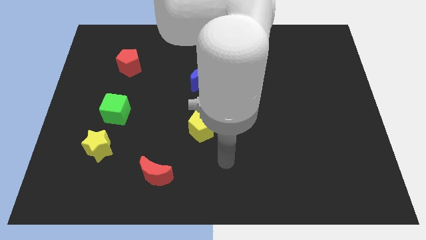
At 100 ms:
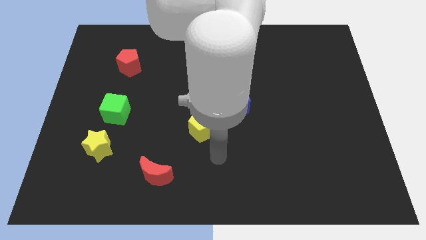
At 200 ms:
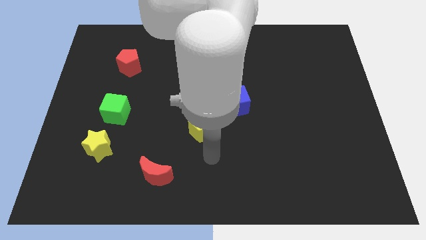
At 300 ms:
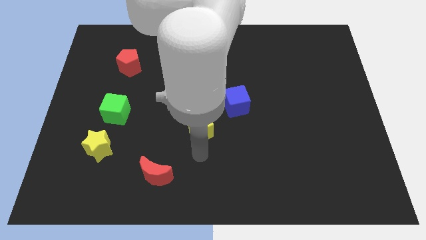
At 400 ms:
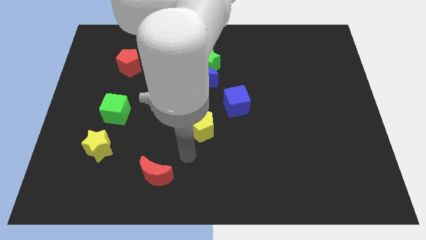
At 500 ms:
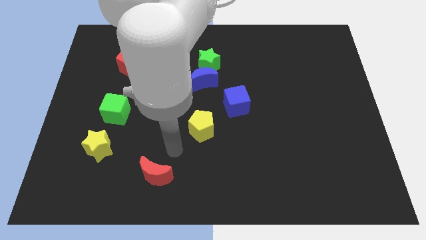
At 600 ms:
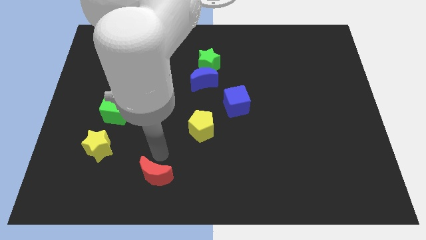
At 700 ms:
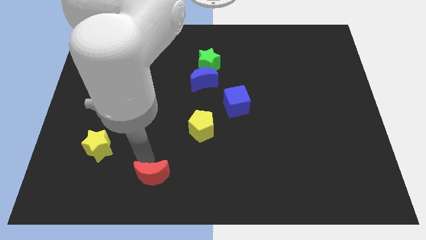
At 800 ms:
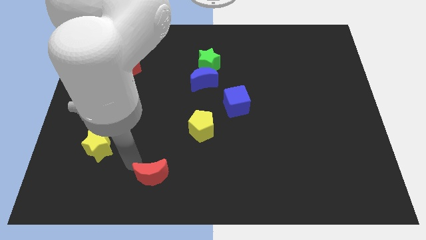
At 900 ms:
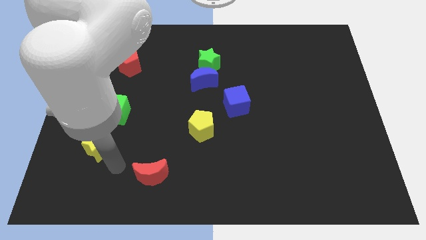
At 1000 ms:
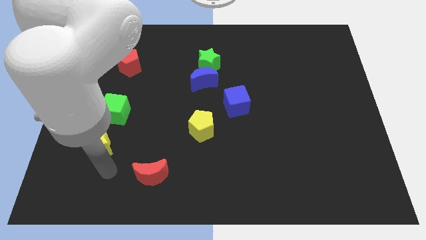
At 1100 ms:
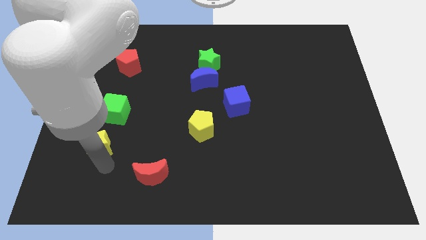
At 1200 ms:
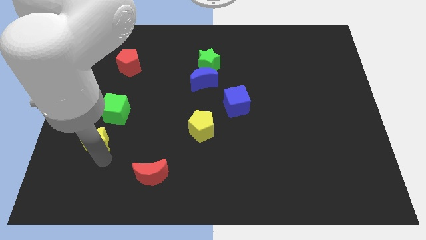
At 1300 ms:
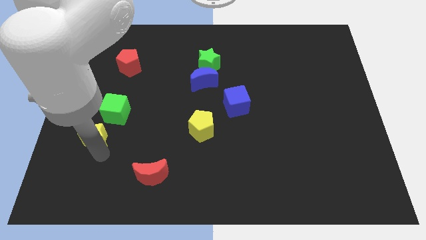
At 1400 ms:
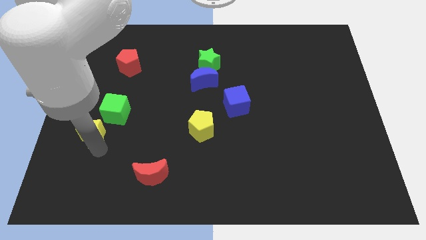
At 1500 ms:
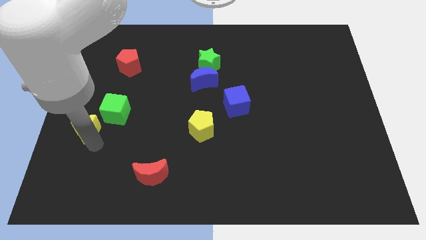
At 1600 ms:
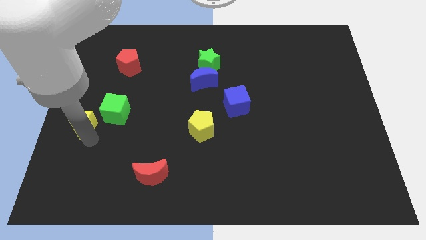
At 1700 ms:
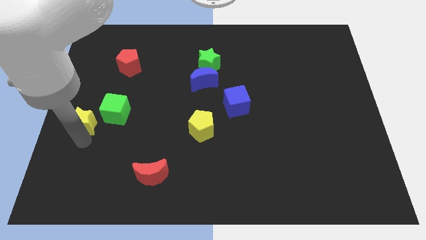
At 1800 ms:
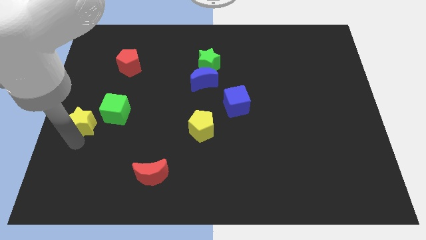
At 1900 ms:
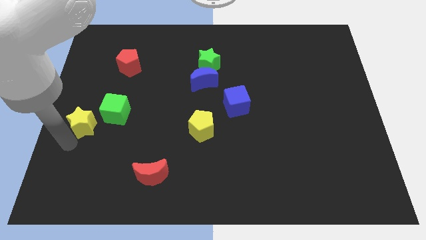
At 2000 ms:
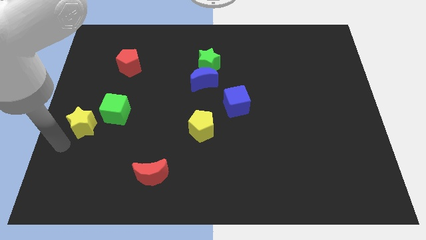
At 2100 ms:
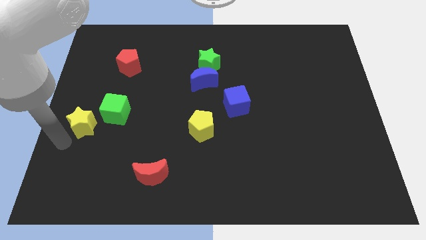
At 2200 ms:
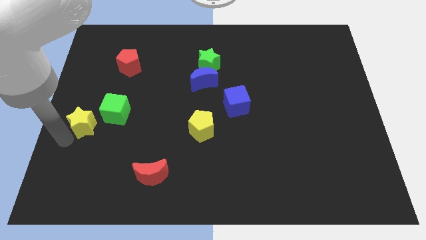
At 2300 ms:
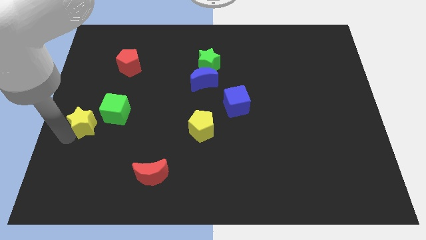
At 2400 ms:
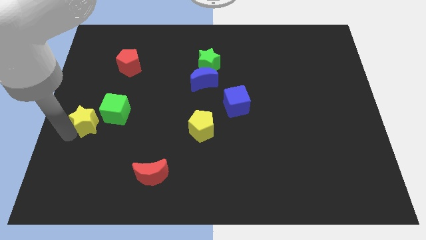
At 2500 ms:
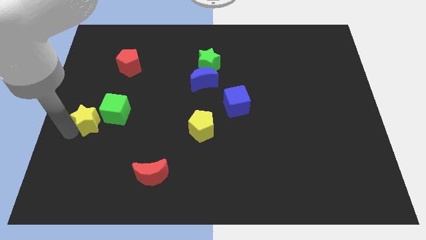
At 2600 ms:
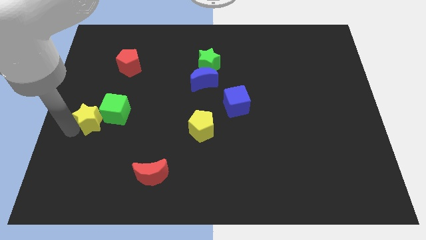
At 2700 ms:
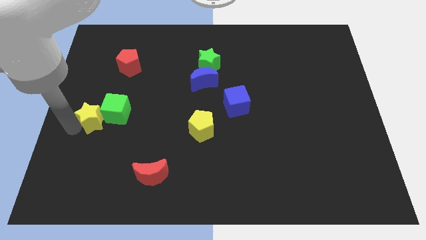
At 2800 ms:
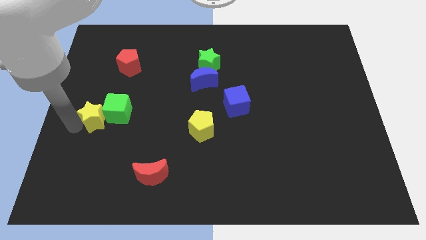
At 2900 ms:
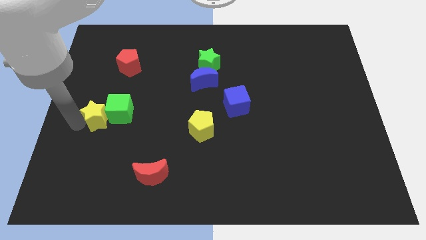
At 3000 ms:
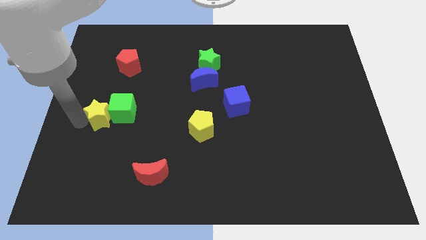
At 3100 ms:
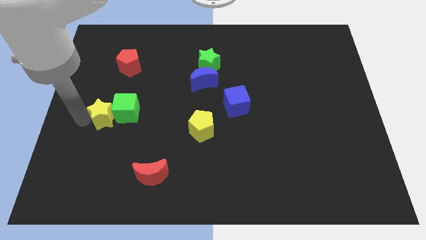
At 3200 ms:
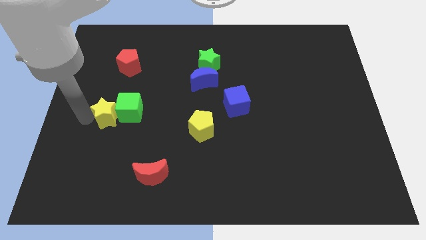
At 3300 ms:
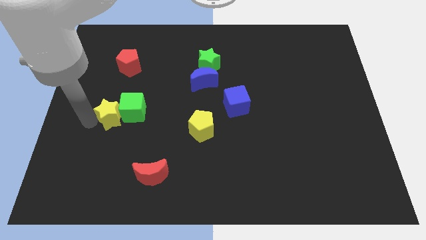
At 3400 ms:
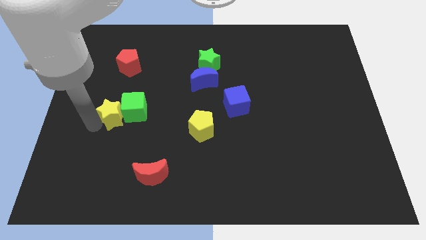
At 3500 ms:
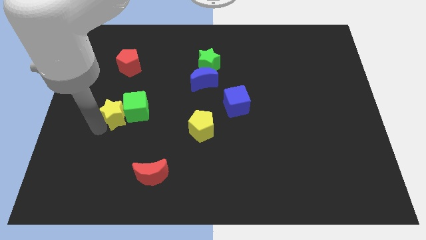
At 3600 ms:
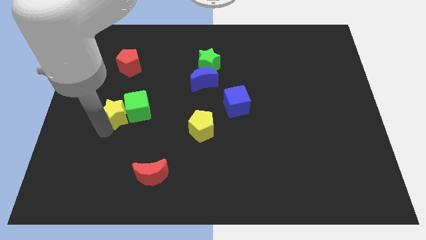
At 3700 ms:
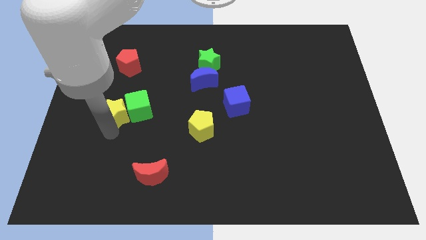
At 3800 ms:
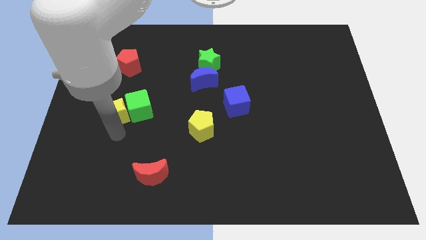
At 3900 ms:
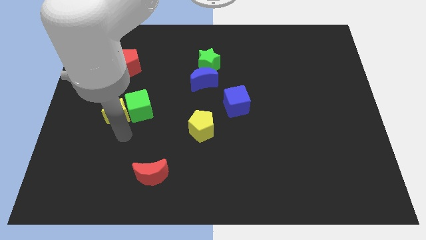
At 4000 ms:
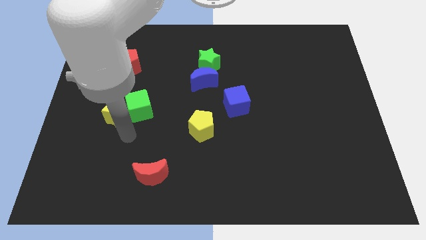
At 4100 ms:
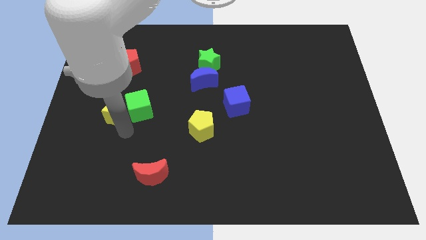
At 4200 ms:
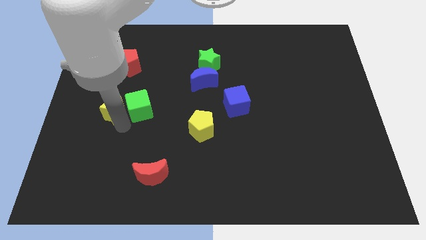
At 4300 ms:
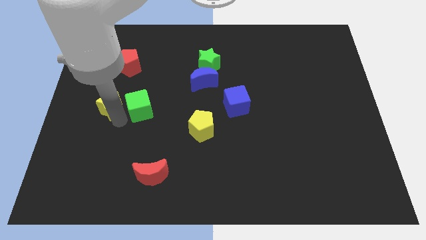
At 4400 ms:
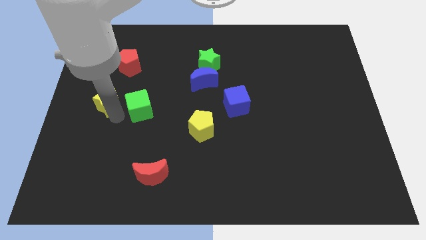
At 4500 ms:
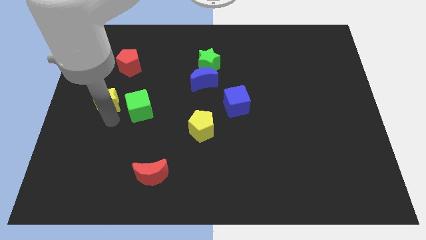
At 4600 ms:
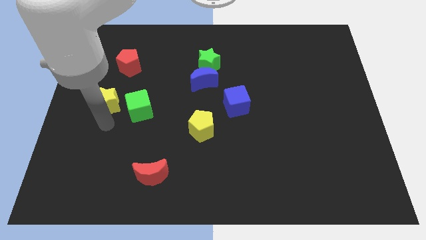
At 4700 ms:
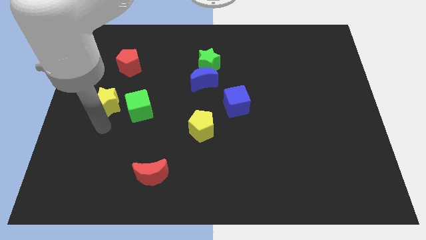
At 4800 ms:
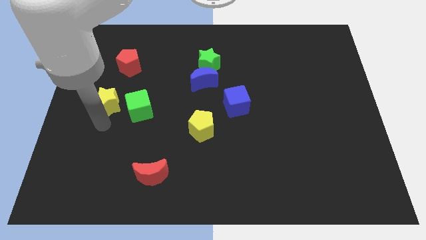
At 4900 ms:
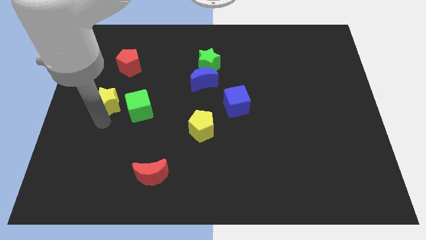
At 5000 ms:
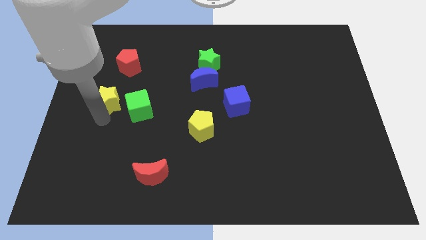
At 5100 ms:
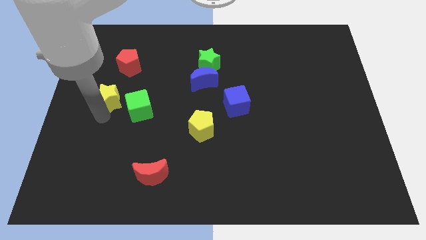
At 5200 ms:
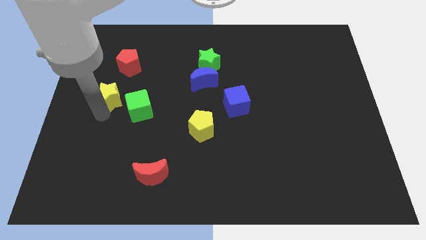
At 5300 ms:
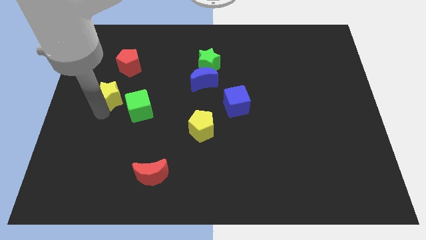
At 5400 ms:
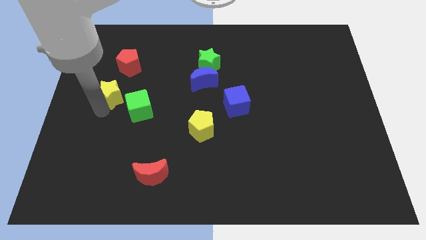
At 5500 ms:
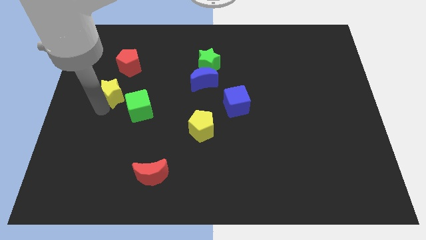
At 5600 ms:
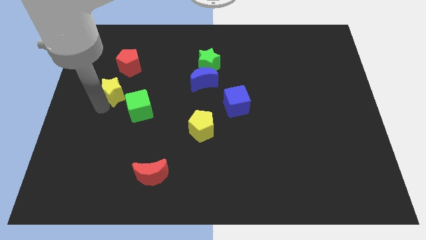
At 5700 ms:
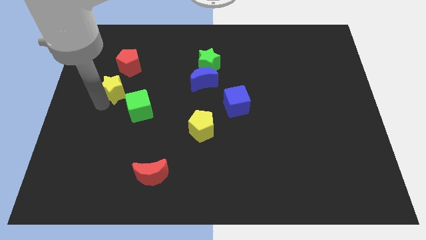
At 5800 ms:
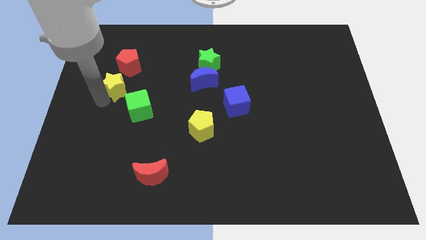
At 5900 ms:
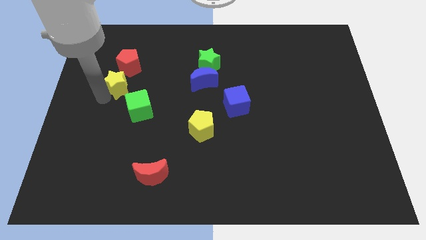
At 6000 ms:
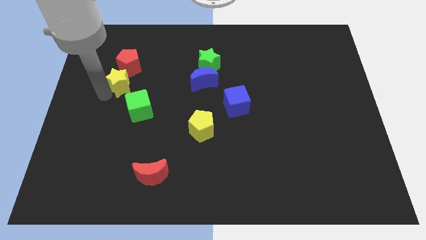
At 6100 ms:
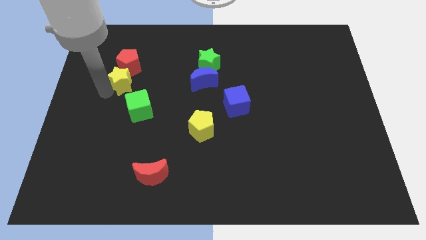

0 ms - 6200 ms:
push the yellow star towards the red pentagon

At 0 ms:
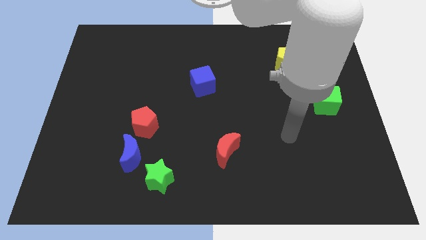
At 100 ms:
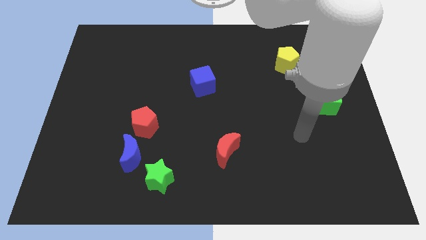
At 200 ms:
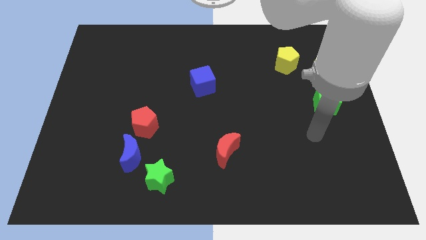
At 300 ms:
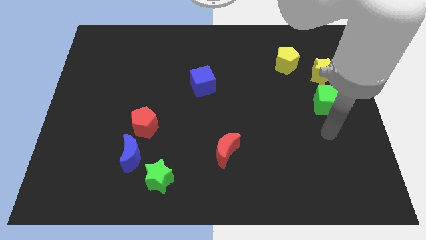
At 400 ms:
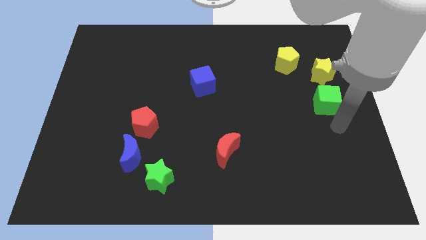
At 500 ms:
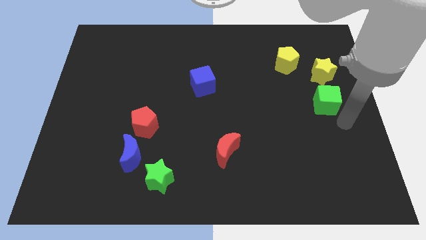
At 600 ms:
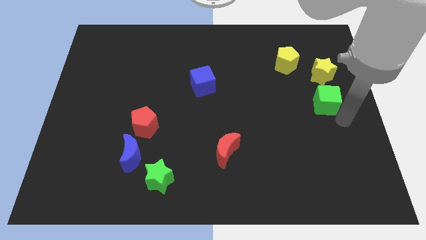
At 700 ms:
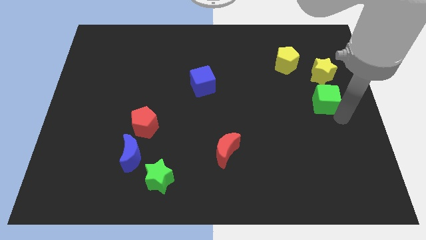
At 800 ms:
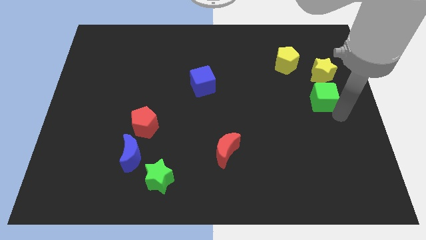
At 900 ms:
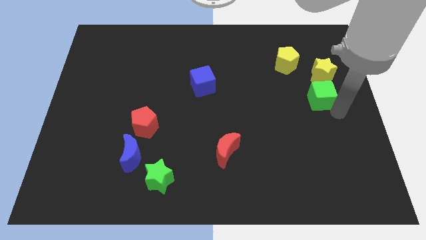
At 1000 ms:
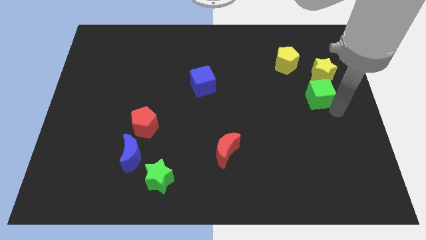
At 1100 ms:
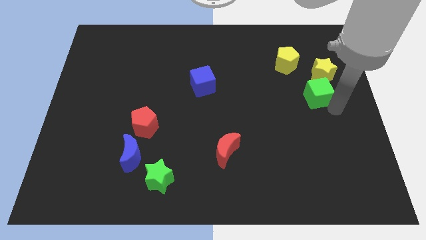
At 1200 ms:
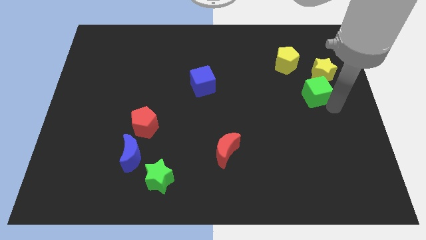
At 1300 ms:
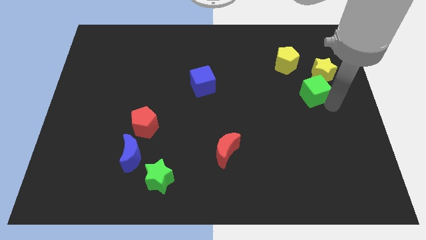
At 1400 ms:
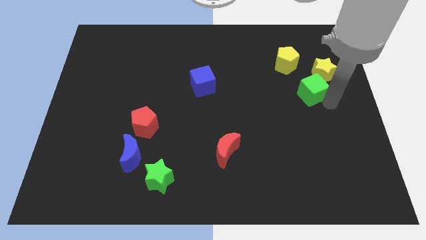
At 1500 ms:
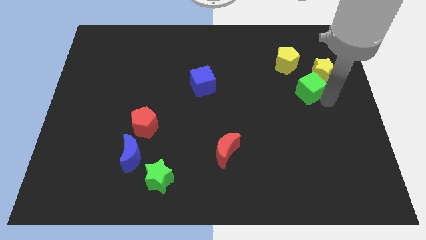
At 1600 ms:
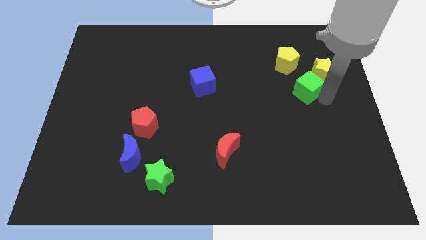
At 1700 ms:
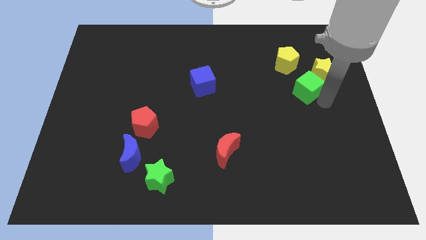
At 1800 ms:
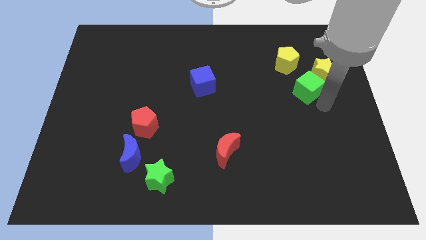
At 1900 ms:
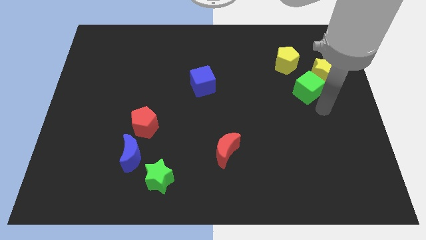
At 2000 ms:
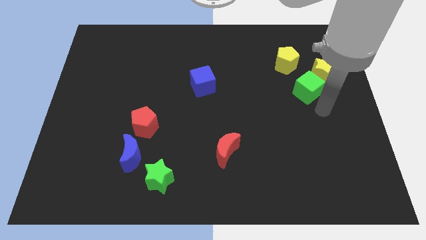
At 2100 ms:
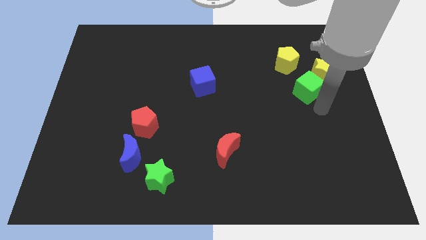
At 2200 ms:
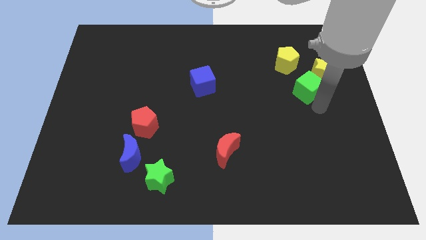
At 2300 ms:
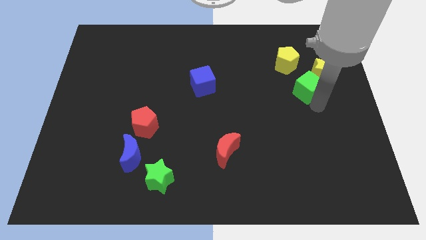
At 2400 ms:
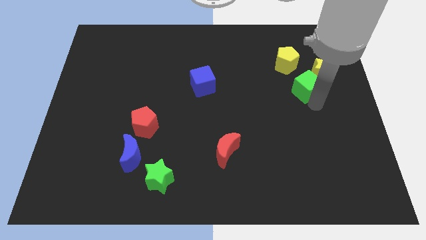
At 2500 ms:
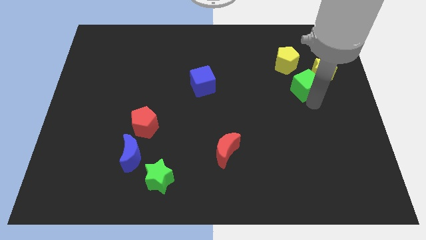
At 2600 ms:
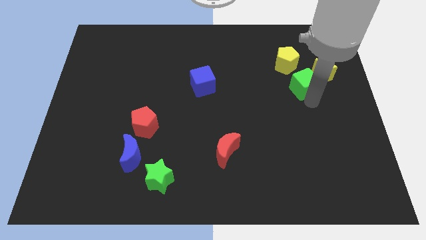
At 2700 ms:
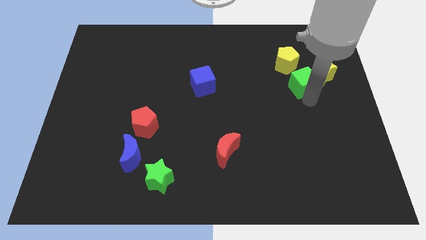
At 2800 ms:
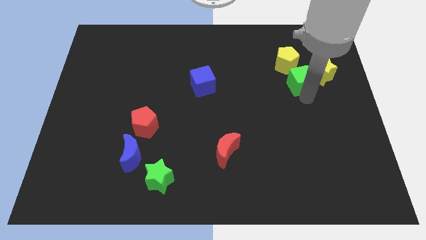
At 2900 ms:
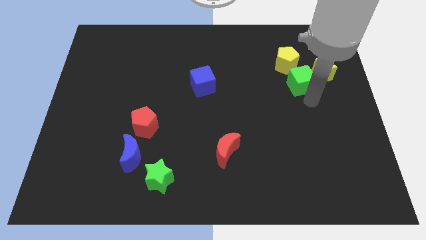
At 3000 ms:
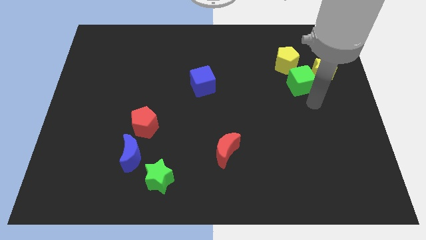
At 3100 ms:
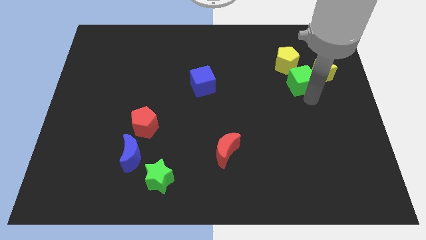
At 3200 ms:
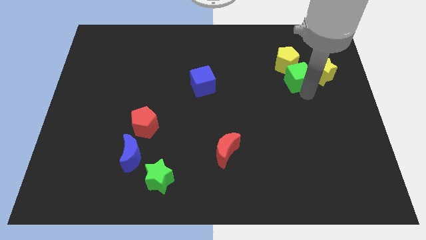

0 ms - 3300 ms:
put the green cube to the yellow pentagon
